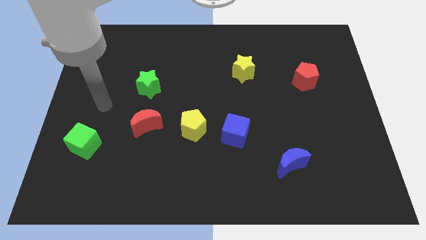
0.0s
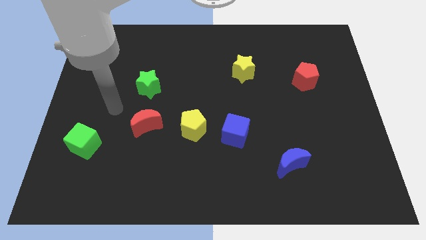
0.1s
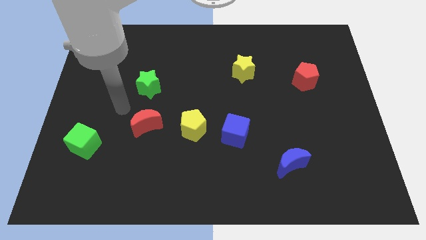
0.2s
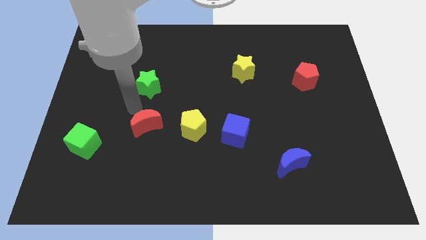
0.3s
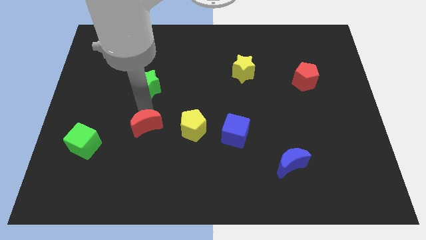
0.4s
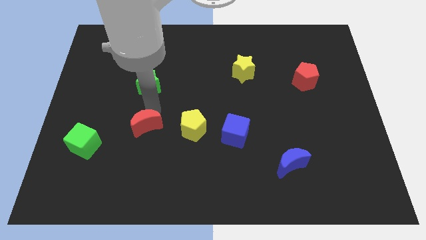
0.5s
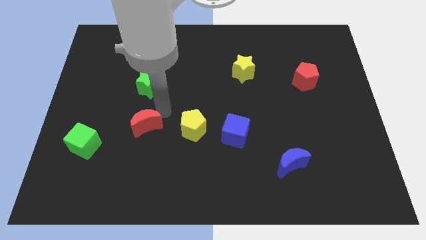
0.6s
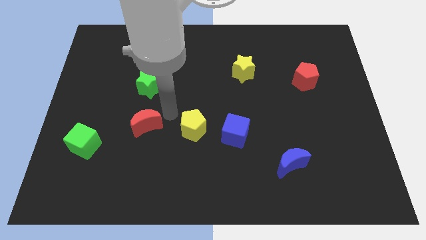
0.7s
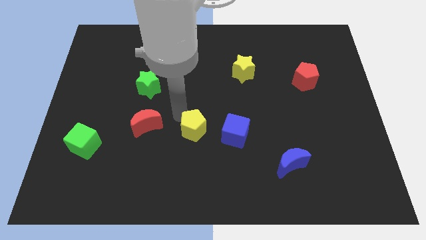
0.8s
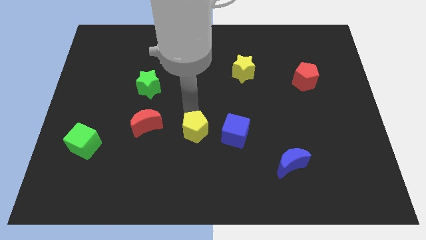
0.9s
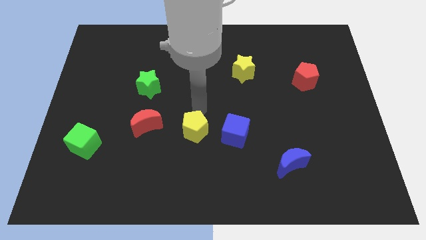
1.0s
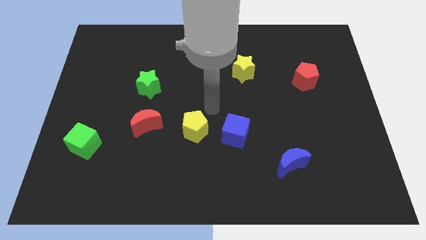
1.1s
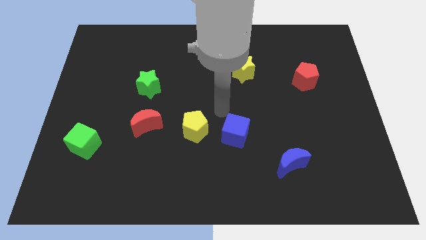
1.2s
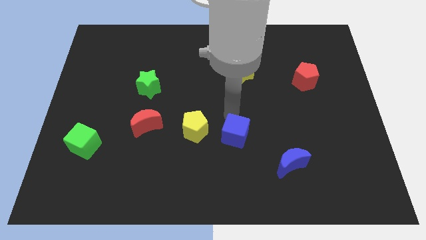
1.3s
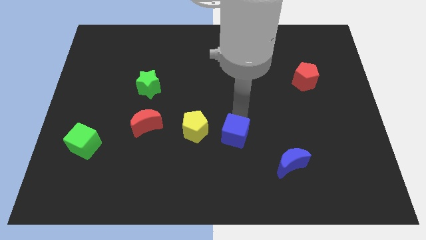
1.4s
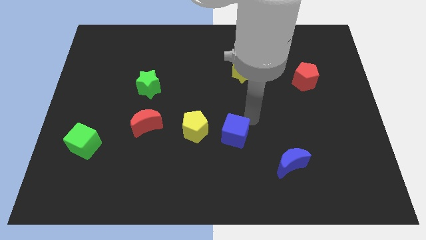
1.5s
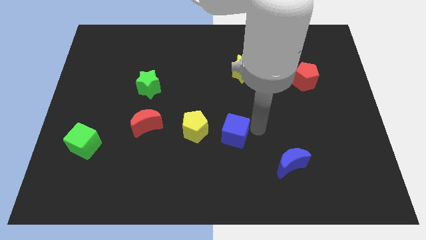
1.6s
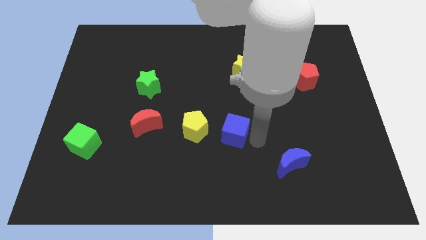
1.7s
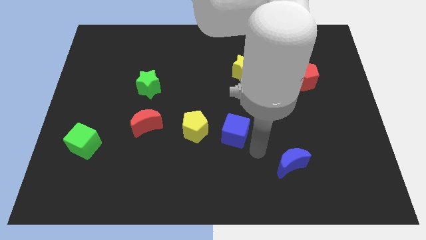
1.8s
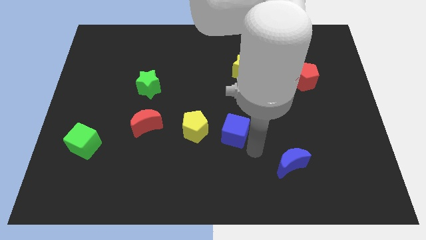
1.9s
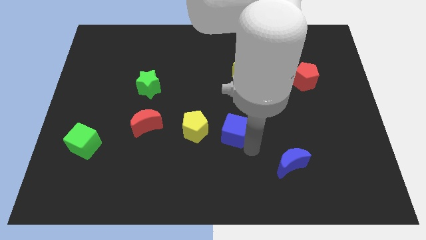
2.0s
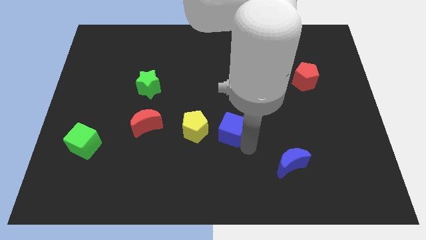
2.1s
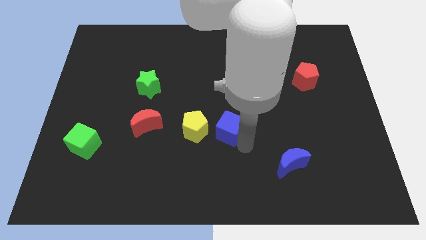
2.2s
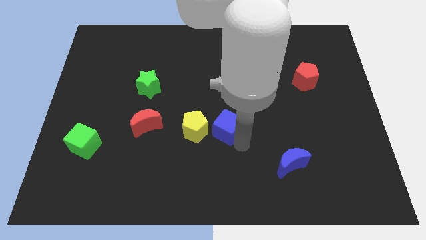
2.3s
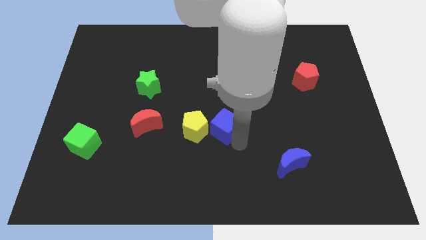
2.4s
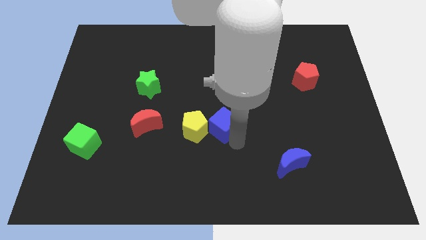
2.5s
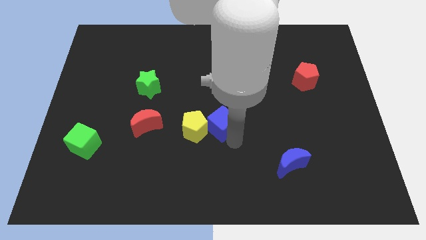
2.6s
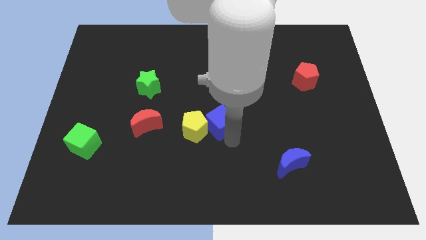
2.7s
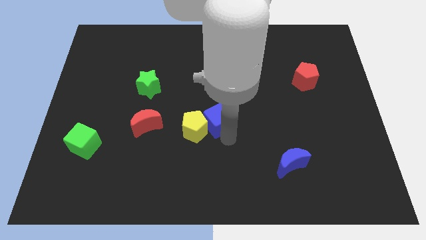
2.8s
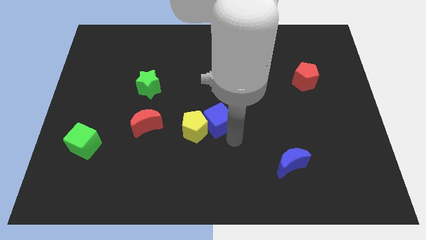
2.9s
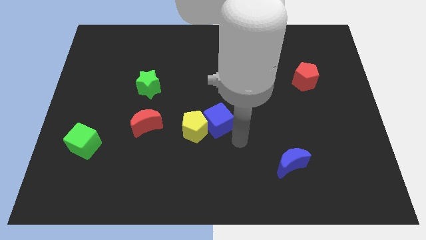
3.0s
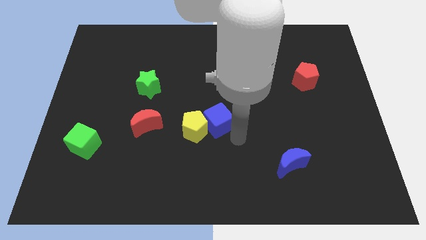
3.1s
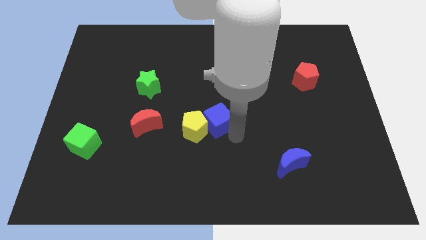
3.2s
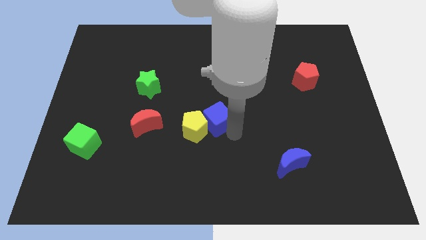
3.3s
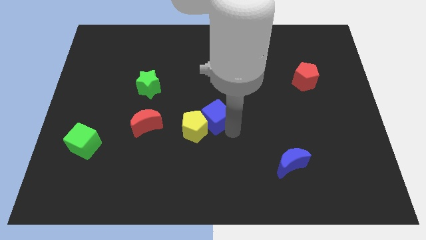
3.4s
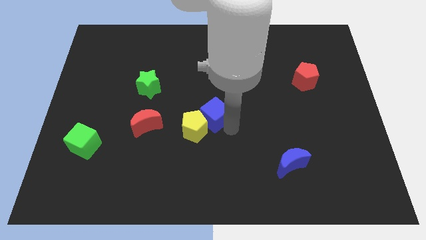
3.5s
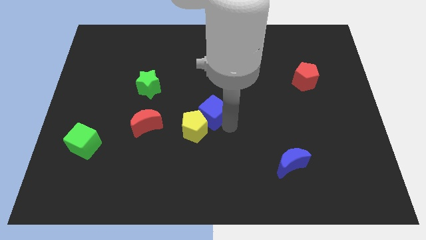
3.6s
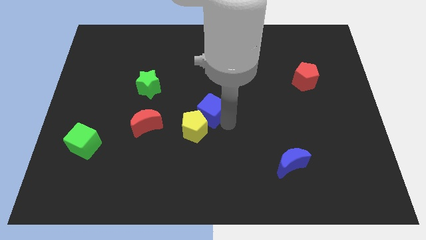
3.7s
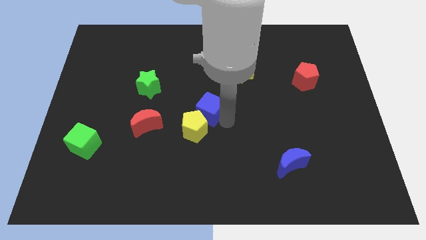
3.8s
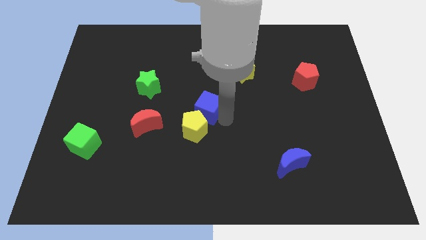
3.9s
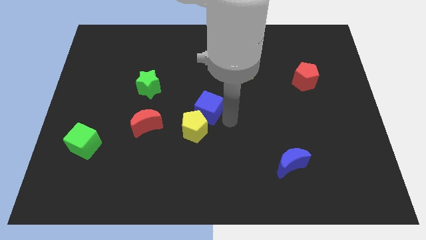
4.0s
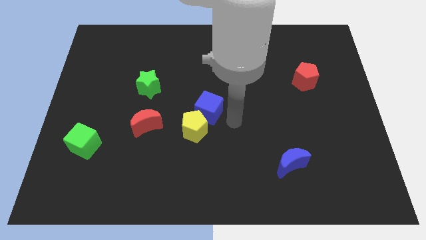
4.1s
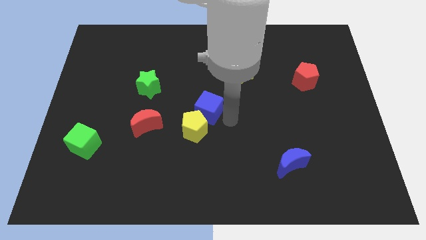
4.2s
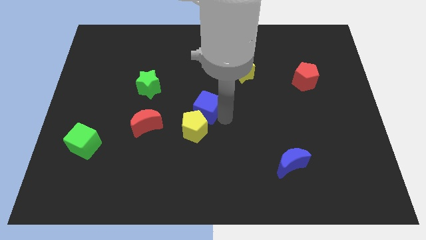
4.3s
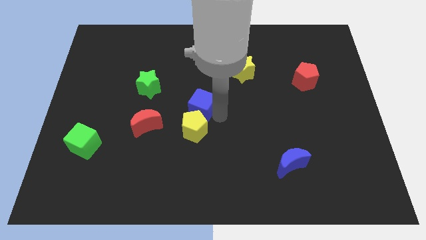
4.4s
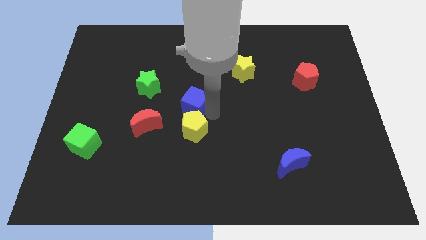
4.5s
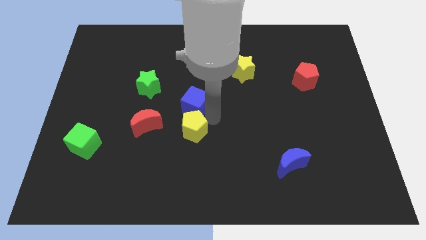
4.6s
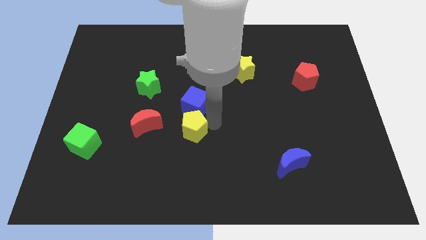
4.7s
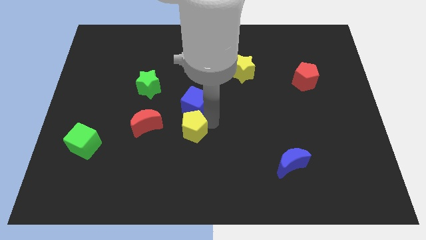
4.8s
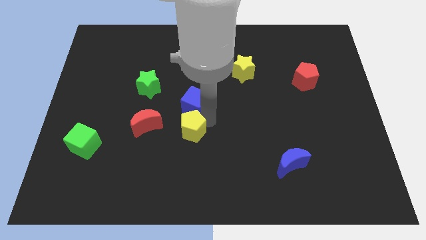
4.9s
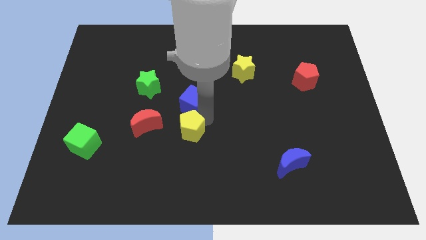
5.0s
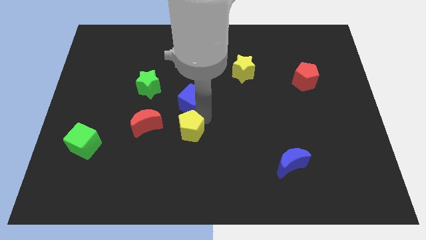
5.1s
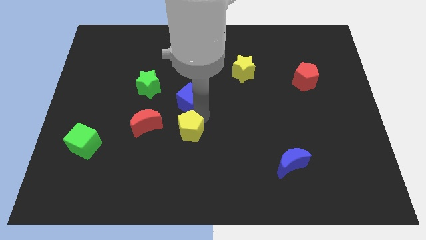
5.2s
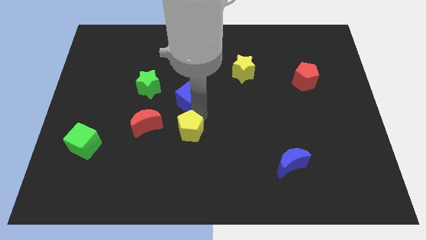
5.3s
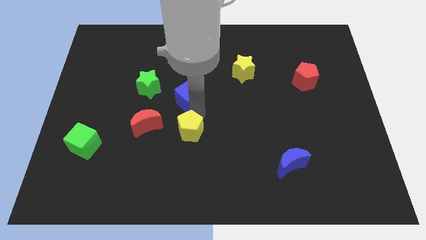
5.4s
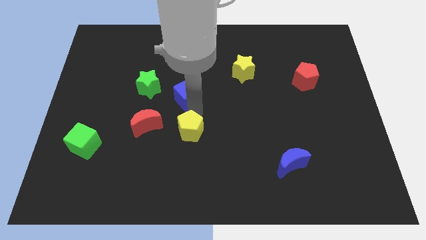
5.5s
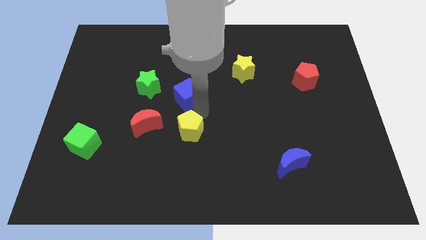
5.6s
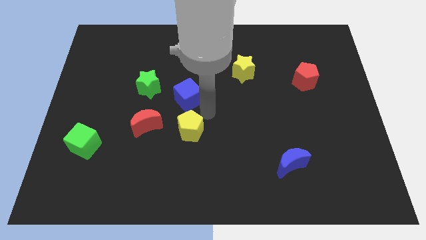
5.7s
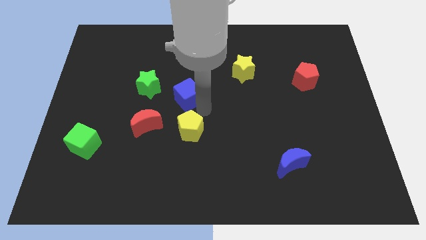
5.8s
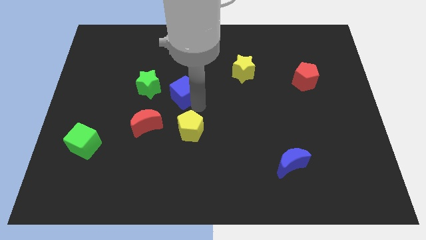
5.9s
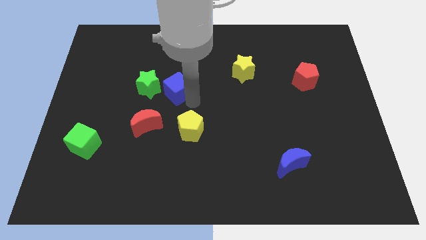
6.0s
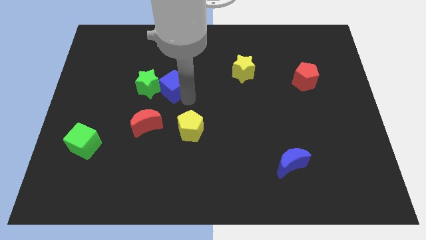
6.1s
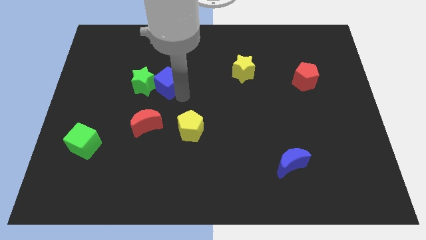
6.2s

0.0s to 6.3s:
push the blue cube upwards and to the left diagonally

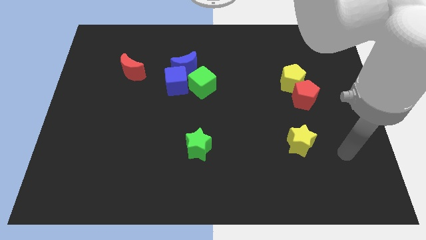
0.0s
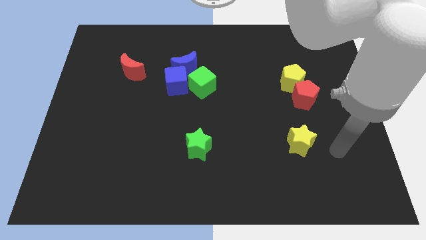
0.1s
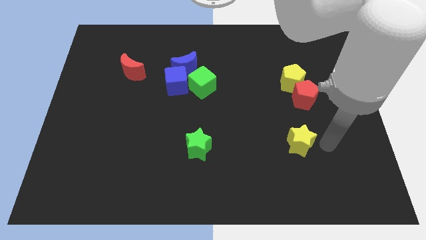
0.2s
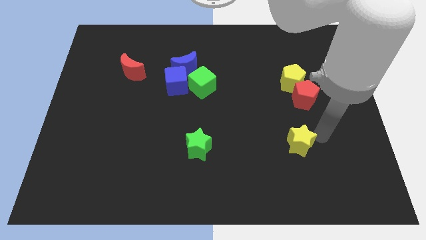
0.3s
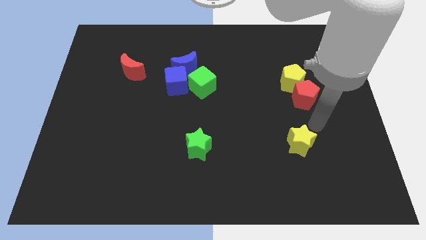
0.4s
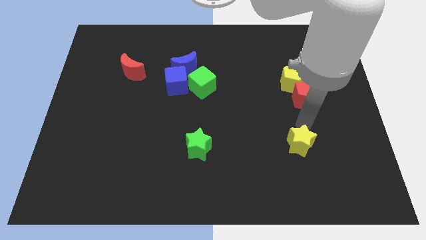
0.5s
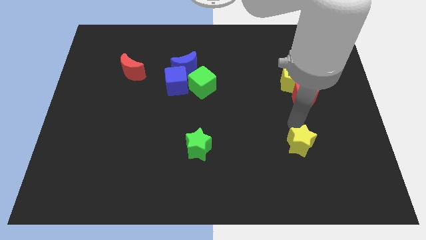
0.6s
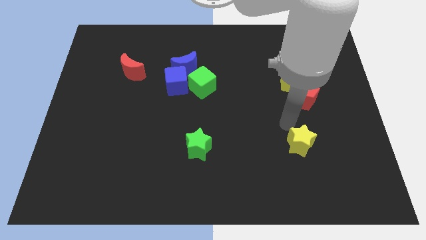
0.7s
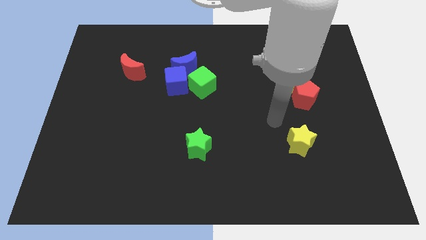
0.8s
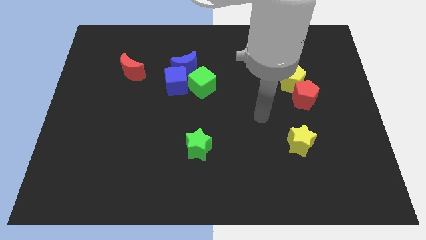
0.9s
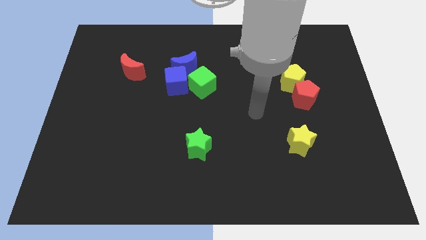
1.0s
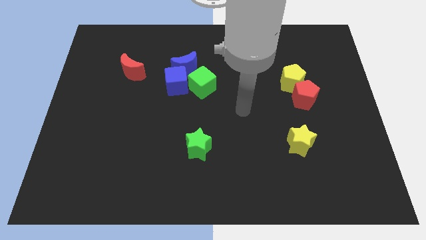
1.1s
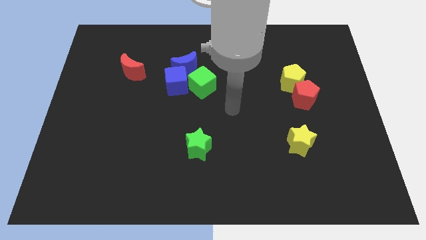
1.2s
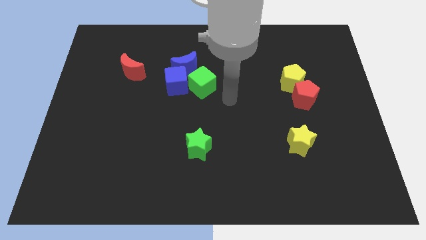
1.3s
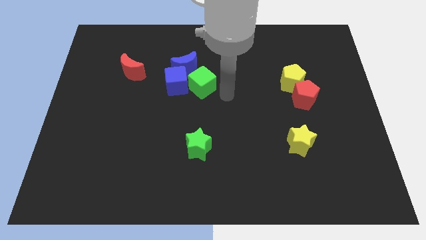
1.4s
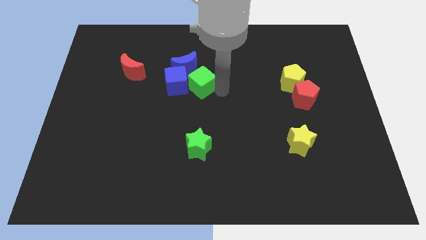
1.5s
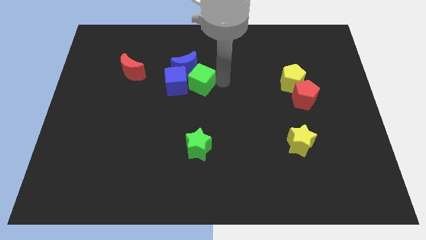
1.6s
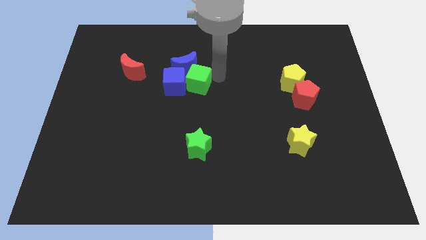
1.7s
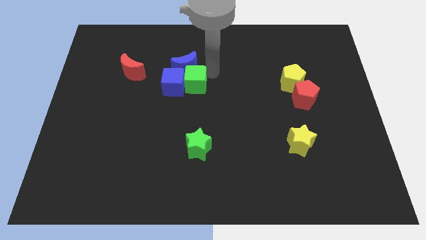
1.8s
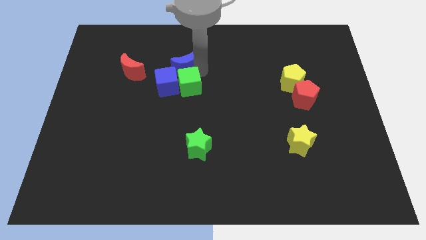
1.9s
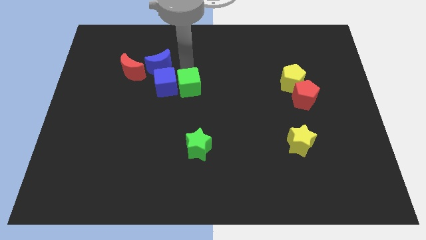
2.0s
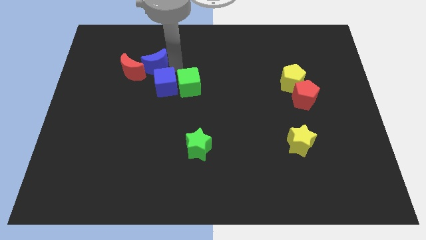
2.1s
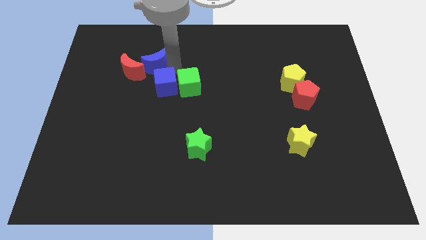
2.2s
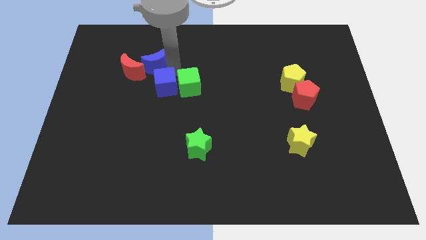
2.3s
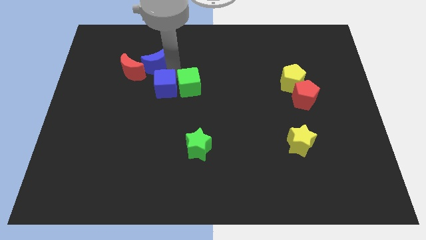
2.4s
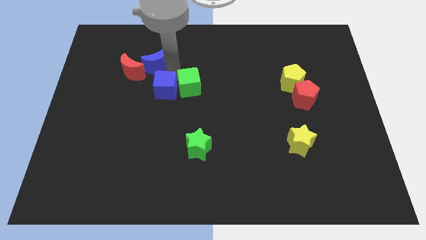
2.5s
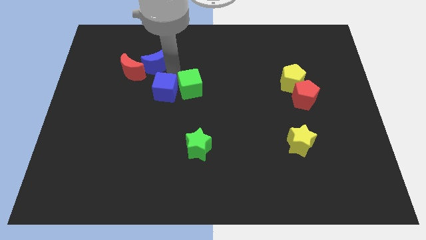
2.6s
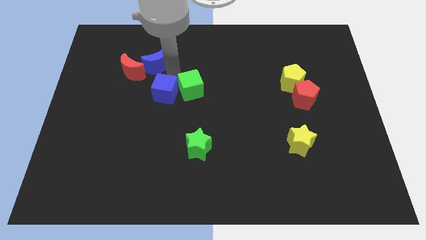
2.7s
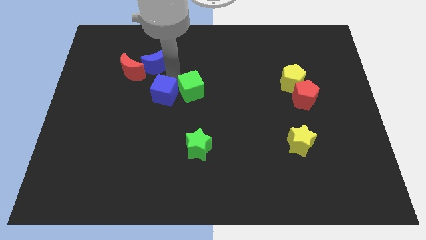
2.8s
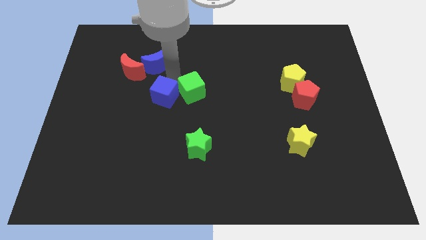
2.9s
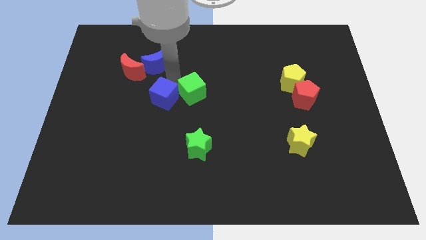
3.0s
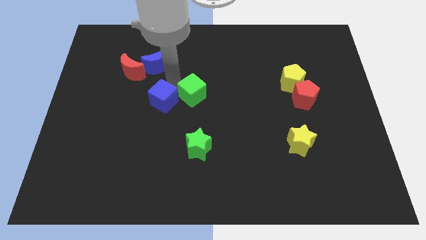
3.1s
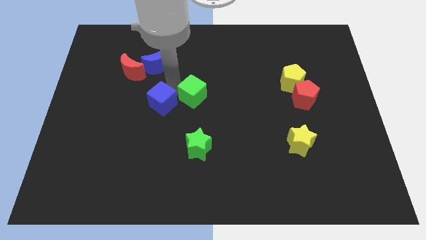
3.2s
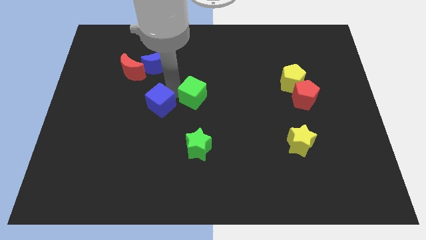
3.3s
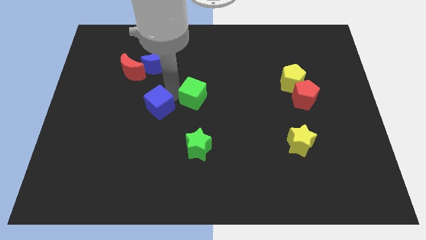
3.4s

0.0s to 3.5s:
slightly move the blue cube diagonally down and left
